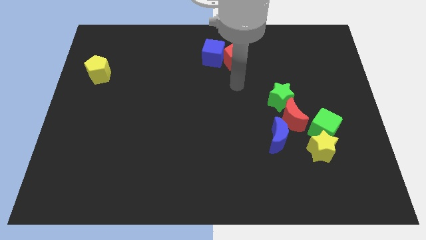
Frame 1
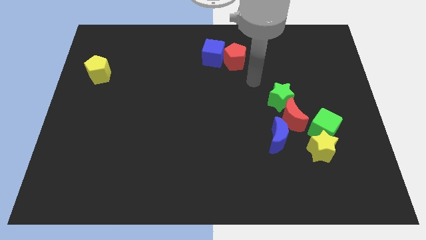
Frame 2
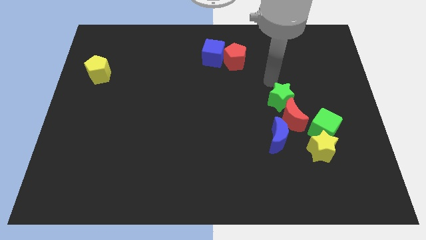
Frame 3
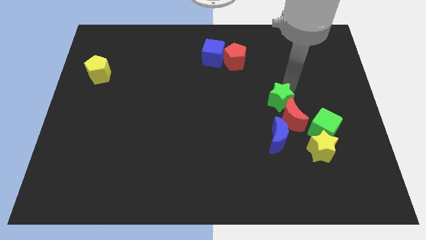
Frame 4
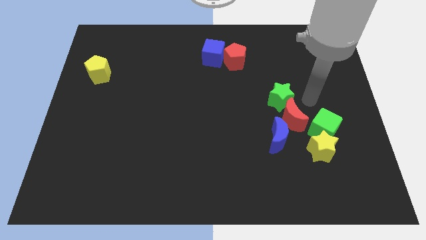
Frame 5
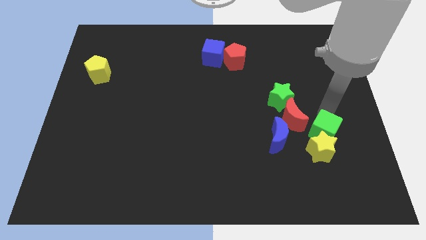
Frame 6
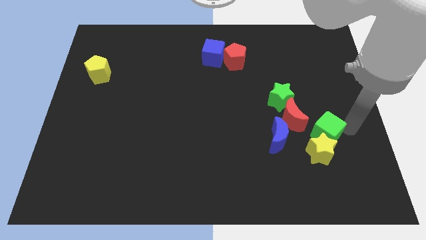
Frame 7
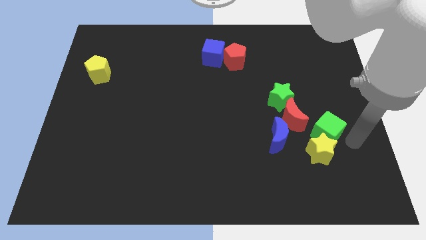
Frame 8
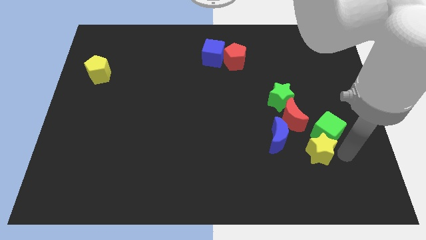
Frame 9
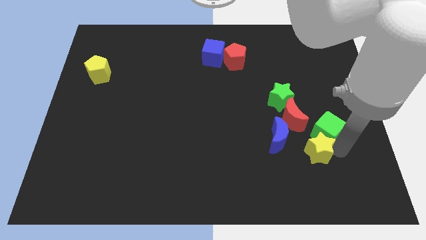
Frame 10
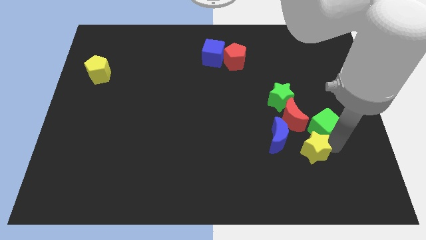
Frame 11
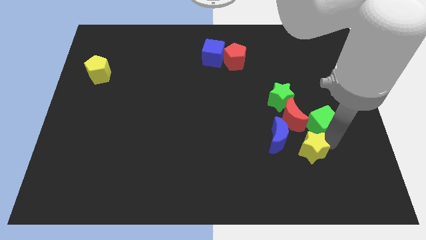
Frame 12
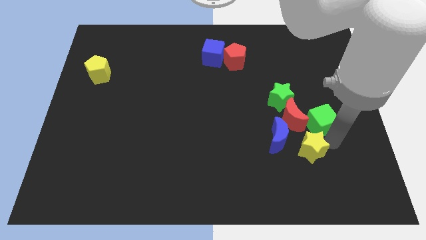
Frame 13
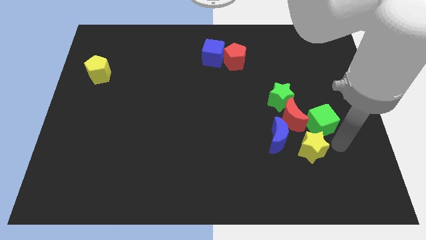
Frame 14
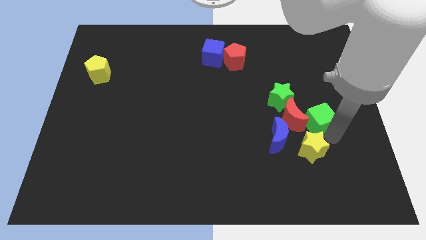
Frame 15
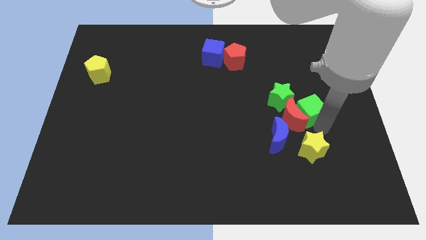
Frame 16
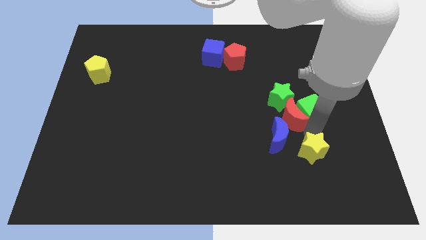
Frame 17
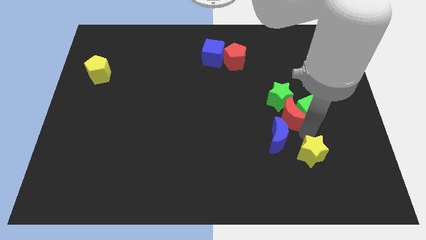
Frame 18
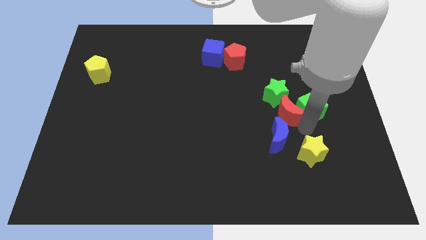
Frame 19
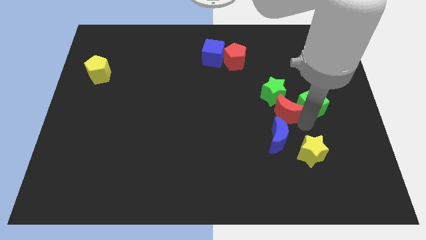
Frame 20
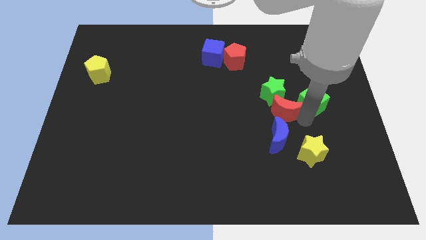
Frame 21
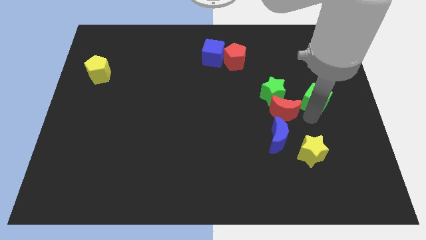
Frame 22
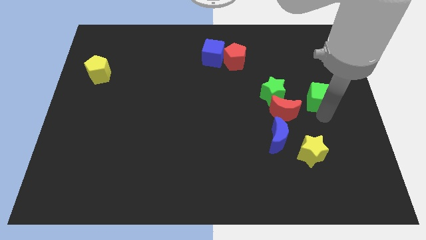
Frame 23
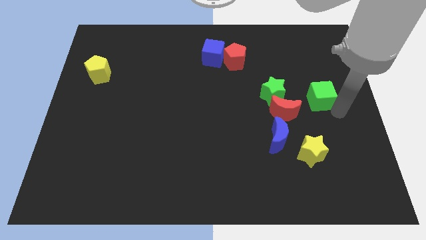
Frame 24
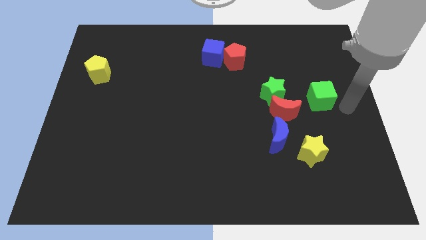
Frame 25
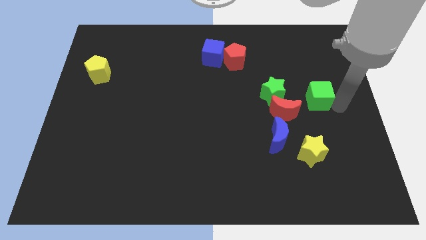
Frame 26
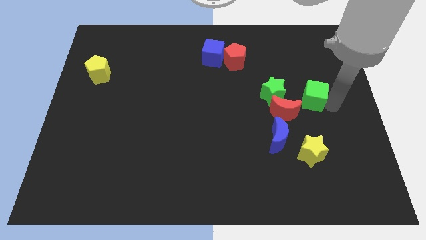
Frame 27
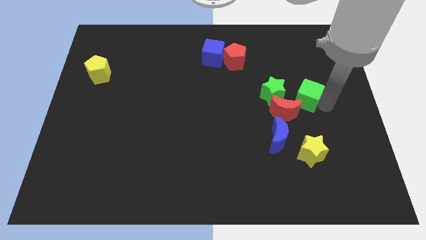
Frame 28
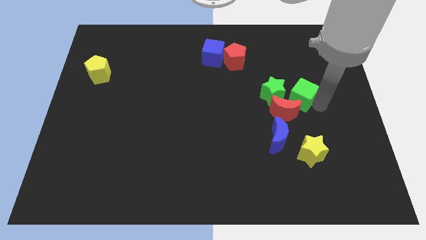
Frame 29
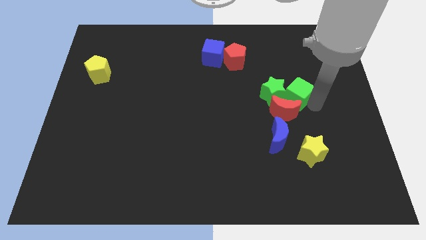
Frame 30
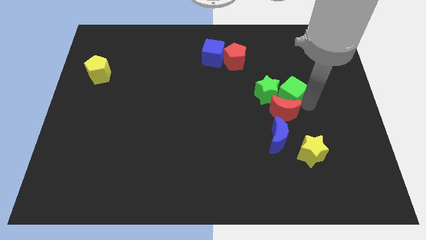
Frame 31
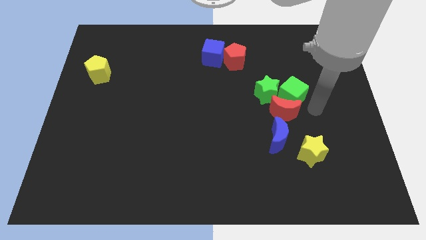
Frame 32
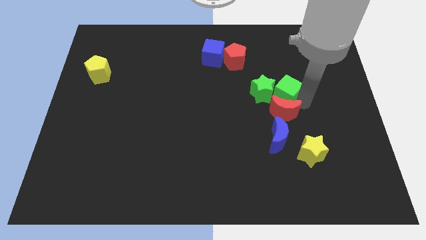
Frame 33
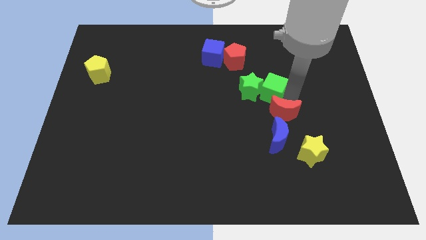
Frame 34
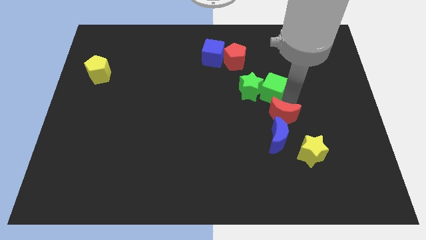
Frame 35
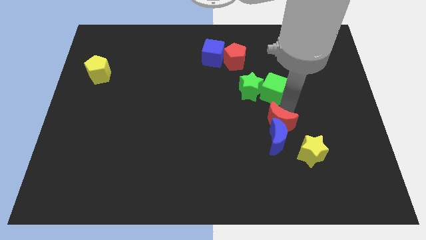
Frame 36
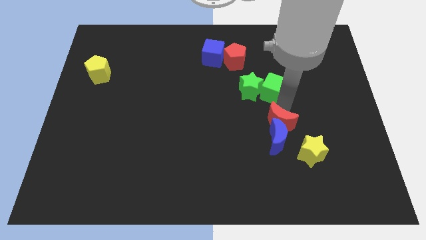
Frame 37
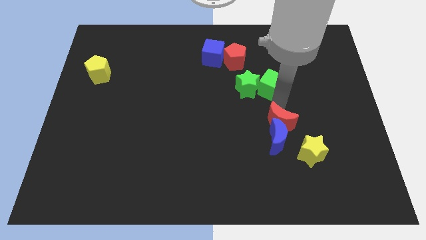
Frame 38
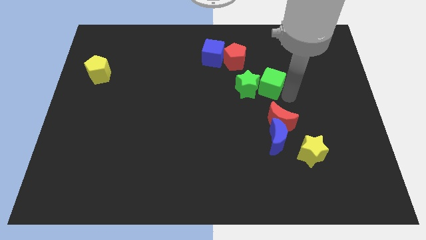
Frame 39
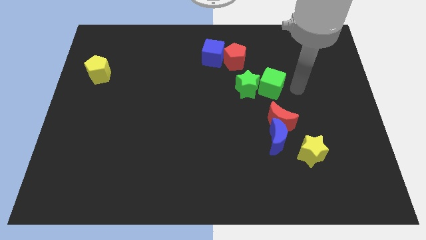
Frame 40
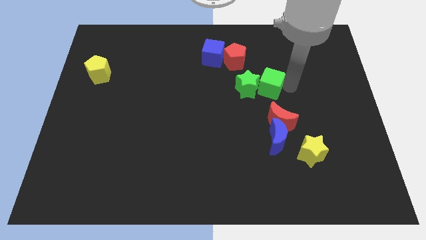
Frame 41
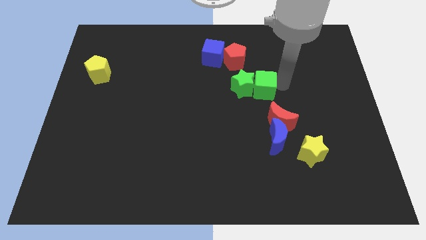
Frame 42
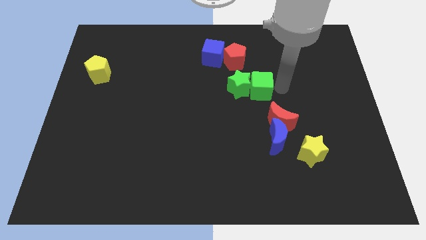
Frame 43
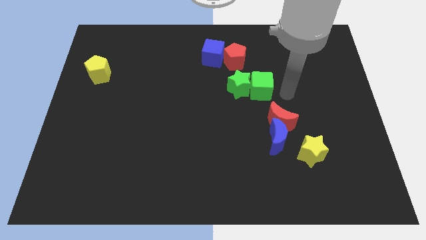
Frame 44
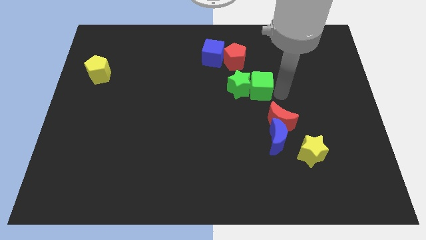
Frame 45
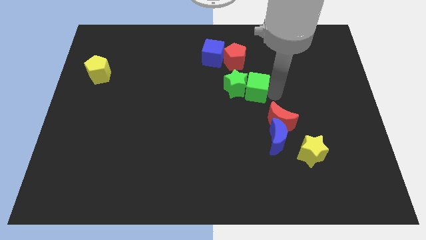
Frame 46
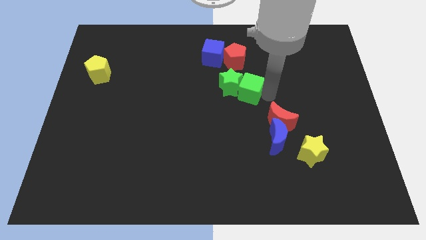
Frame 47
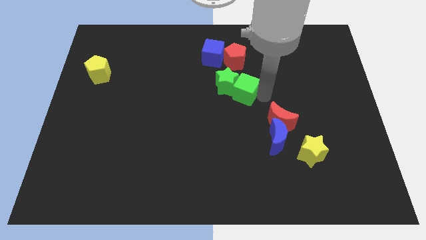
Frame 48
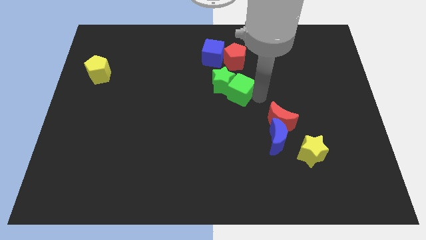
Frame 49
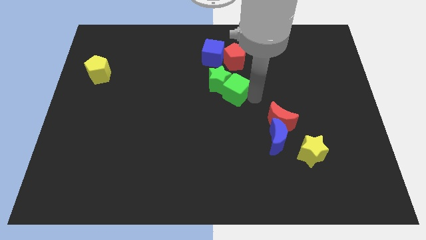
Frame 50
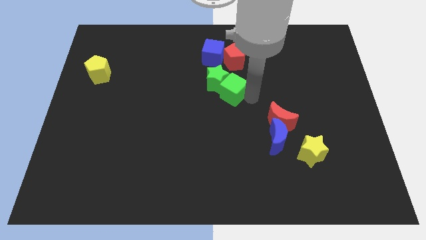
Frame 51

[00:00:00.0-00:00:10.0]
push the green cube below the blue cube

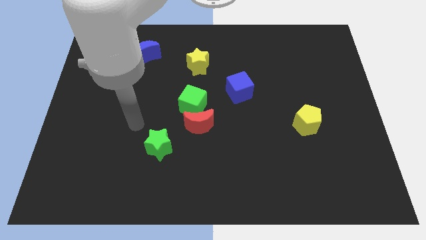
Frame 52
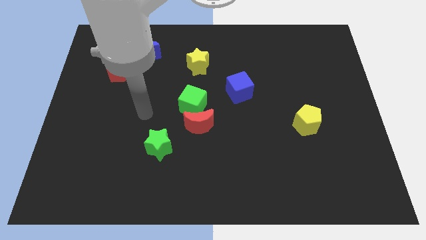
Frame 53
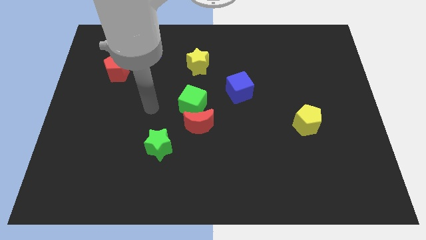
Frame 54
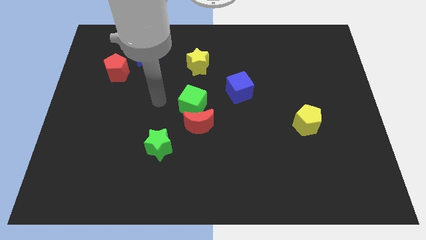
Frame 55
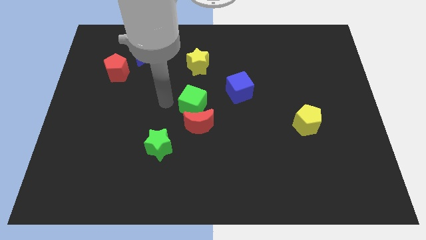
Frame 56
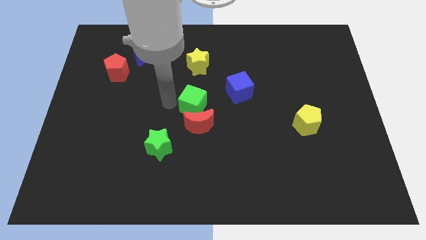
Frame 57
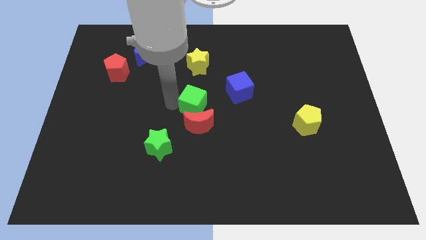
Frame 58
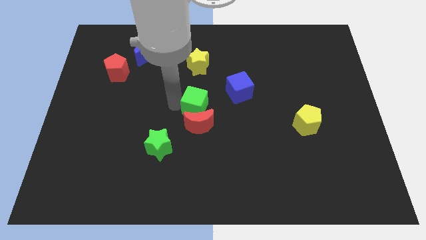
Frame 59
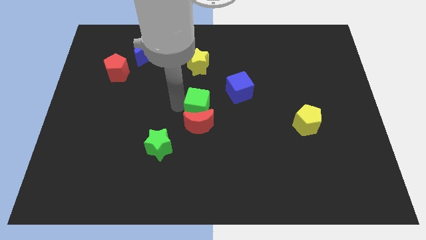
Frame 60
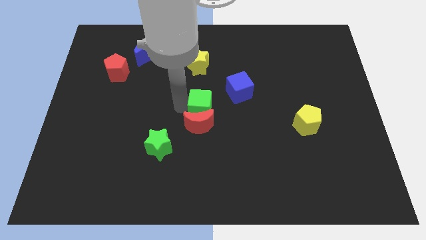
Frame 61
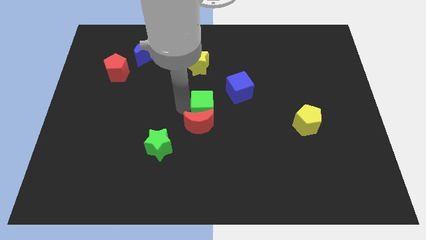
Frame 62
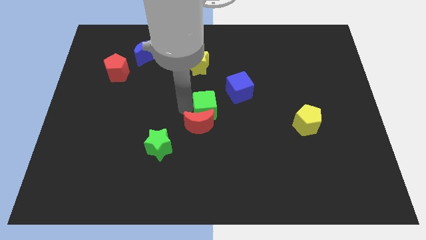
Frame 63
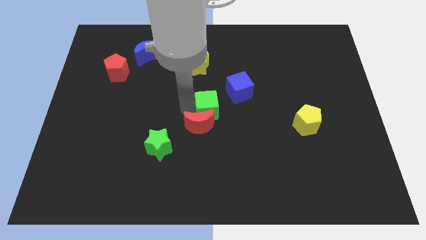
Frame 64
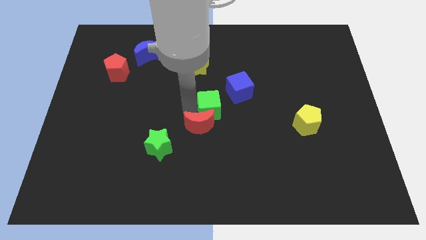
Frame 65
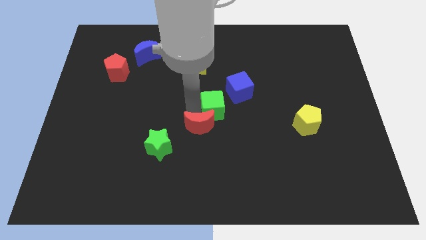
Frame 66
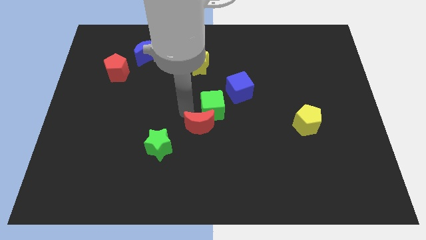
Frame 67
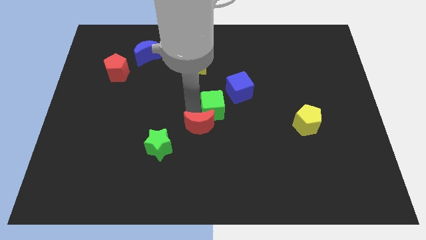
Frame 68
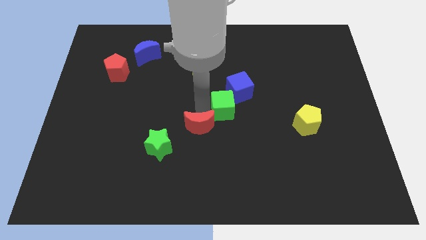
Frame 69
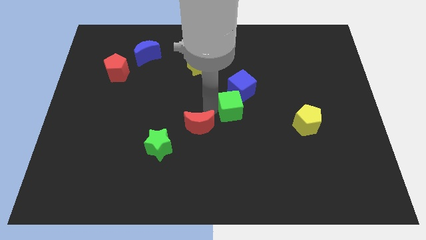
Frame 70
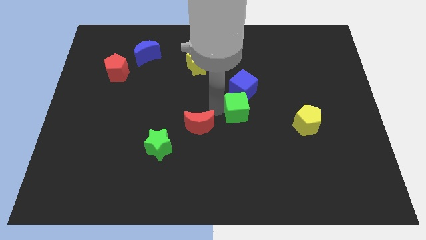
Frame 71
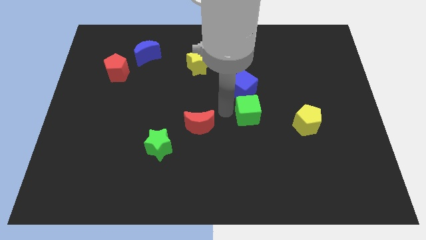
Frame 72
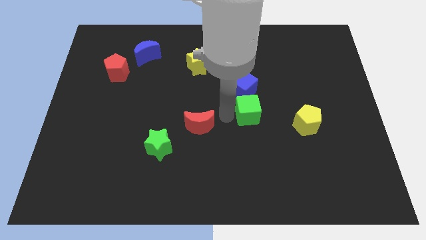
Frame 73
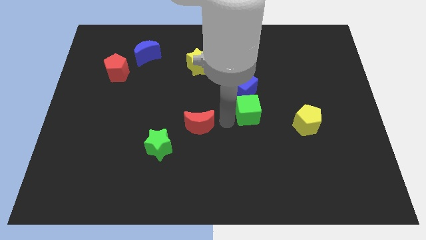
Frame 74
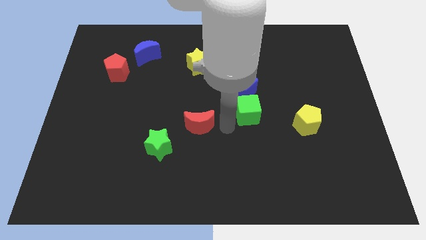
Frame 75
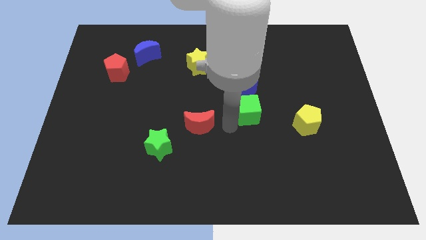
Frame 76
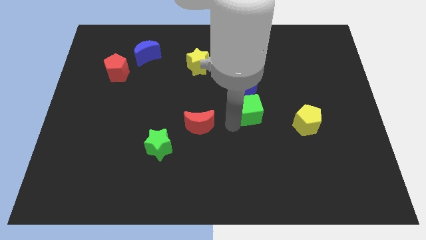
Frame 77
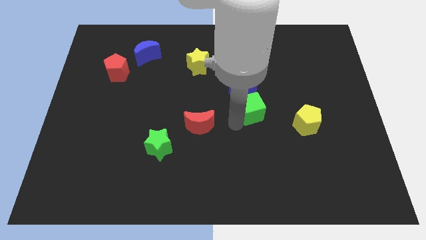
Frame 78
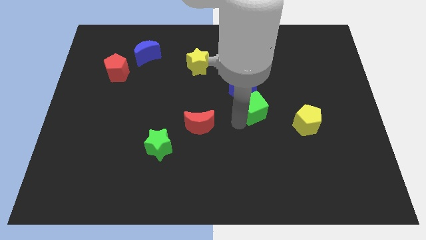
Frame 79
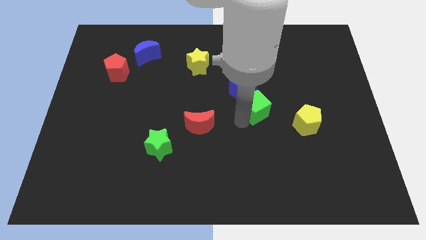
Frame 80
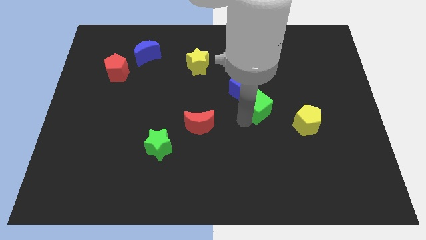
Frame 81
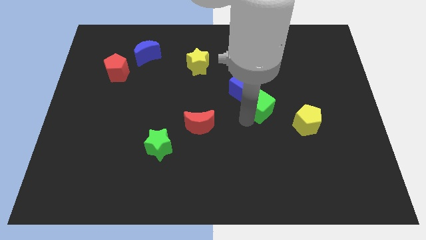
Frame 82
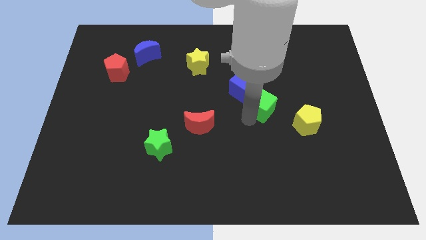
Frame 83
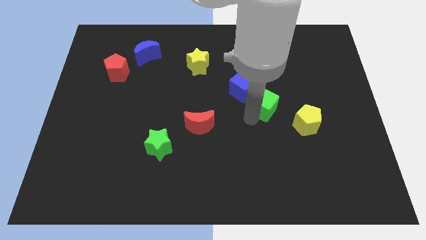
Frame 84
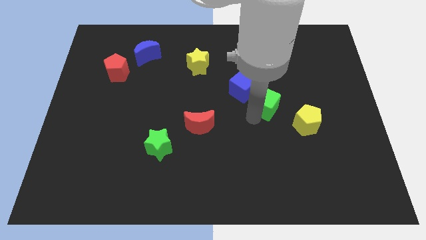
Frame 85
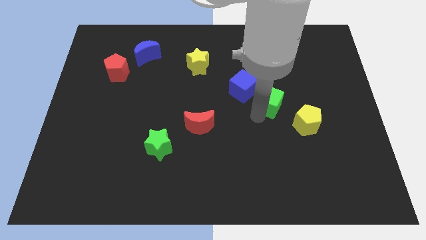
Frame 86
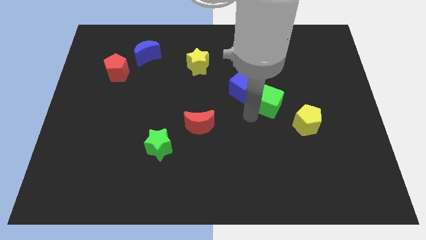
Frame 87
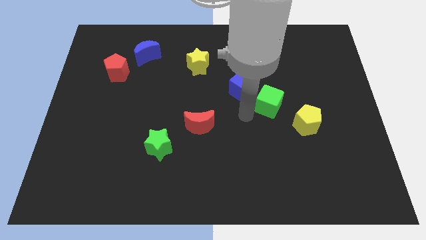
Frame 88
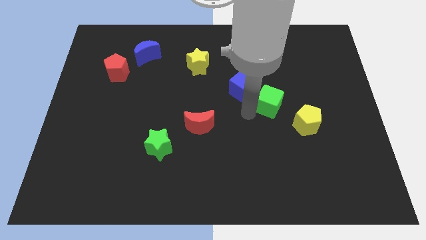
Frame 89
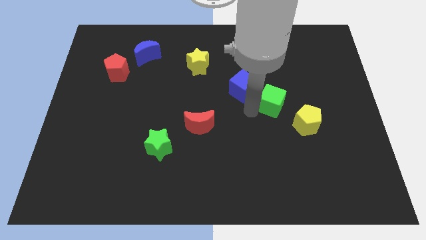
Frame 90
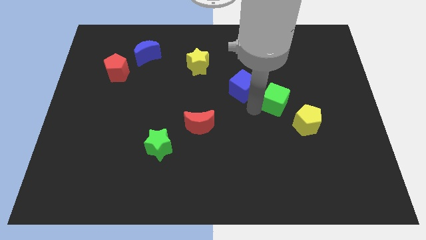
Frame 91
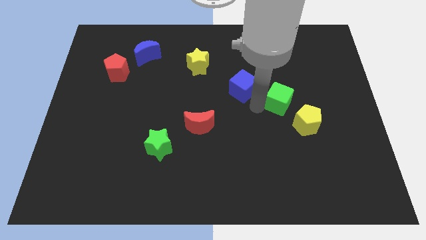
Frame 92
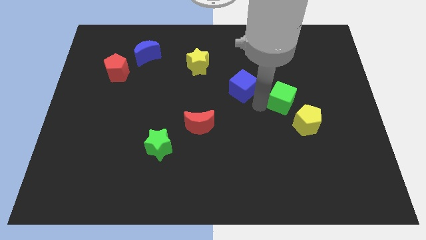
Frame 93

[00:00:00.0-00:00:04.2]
put the green cube to the top of the yellow pentagon
